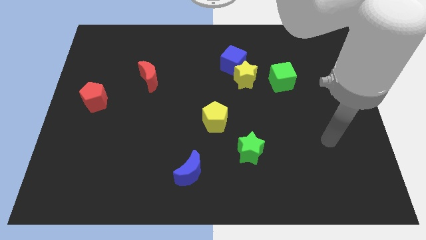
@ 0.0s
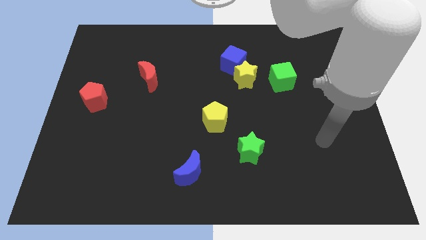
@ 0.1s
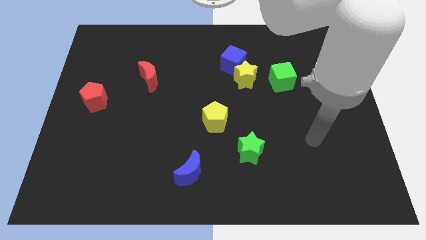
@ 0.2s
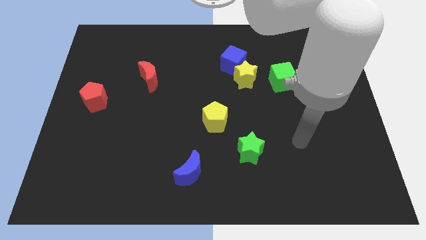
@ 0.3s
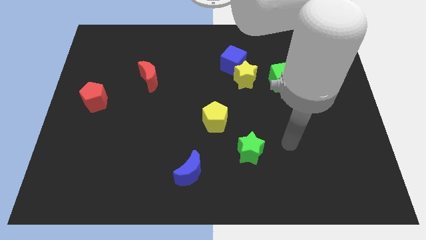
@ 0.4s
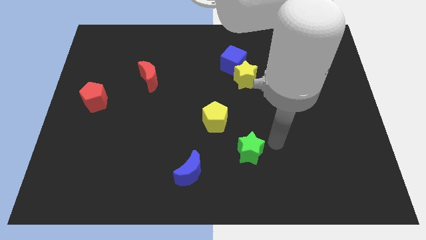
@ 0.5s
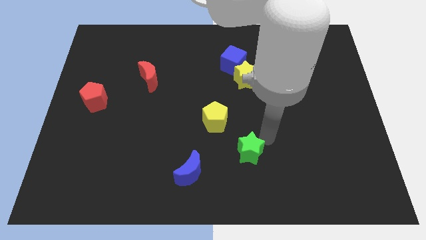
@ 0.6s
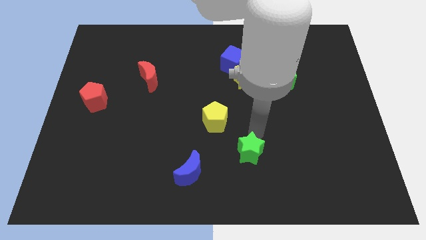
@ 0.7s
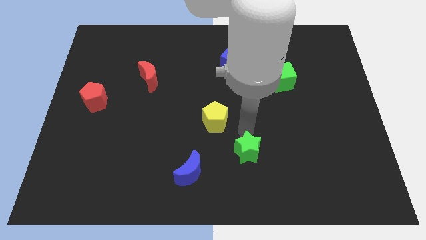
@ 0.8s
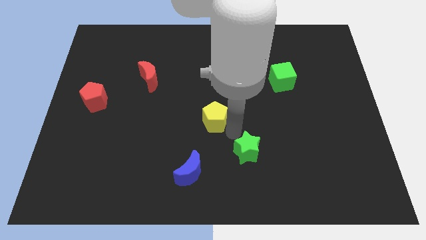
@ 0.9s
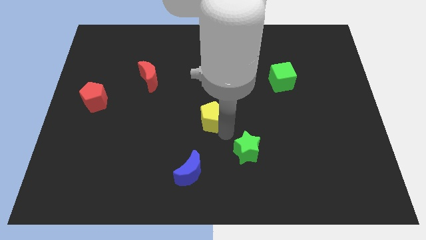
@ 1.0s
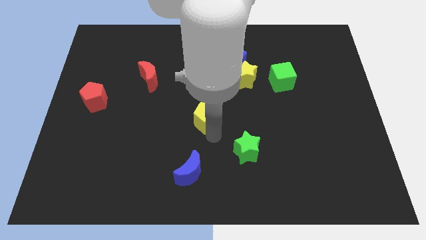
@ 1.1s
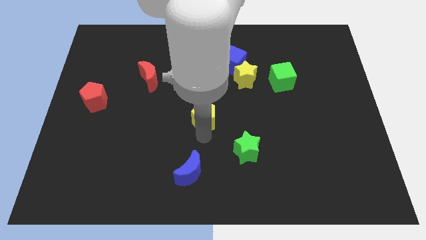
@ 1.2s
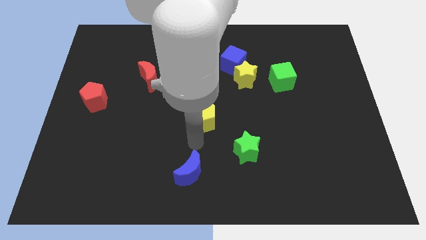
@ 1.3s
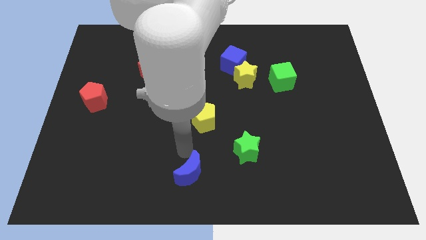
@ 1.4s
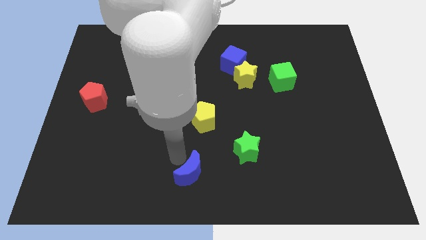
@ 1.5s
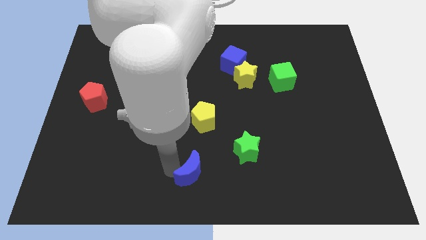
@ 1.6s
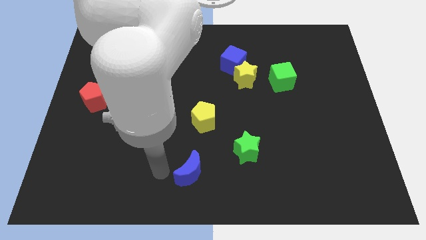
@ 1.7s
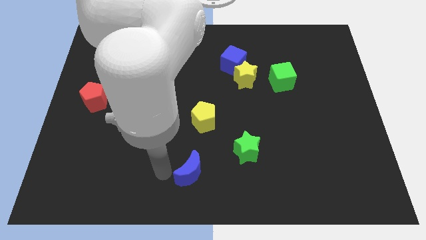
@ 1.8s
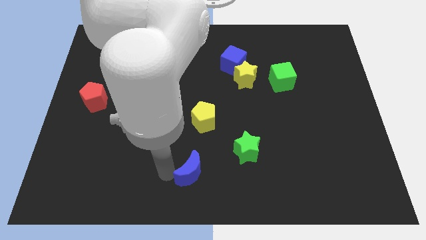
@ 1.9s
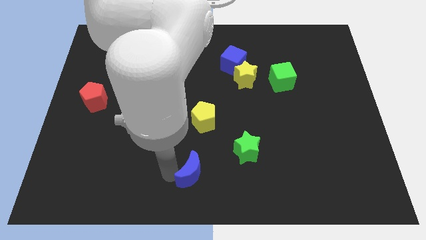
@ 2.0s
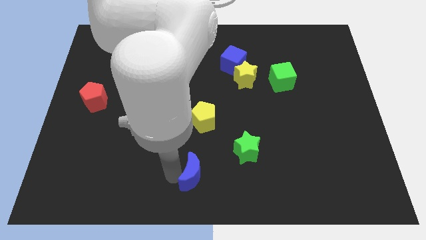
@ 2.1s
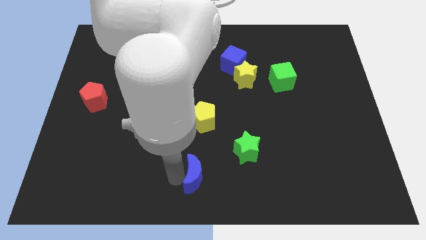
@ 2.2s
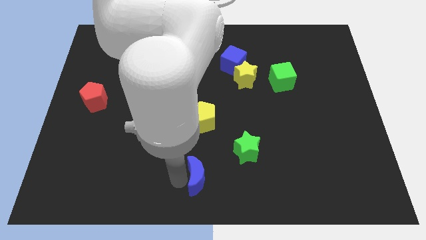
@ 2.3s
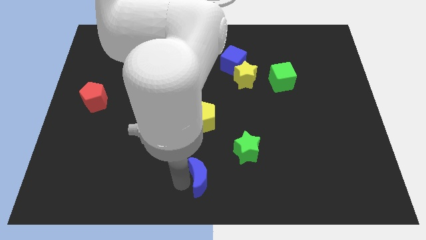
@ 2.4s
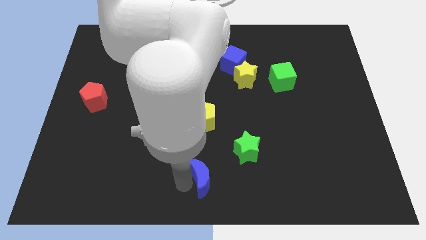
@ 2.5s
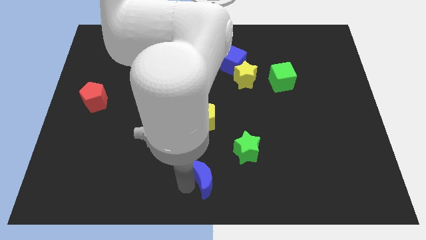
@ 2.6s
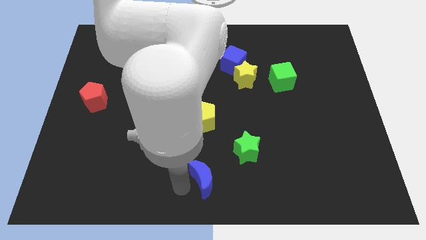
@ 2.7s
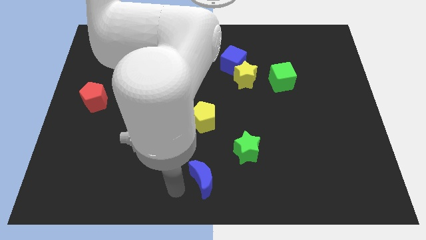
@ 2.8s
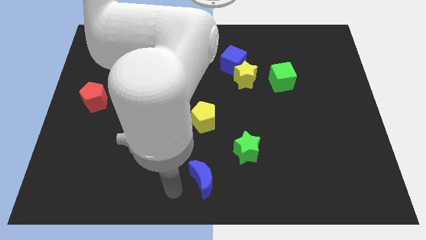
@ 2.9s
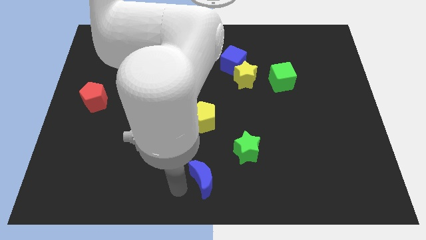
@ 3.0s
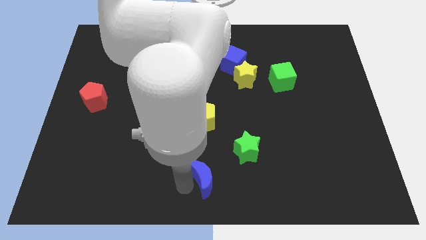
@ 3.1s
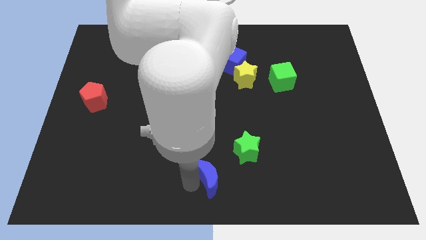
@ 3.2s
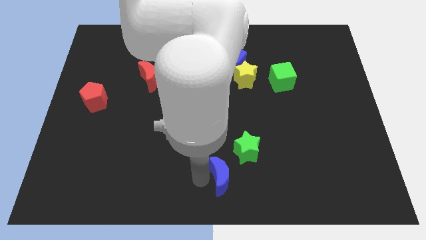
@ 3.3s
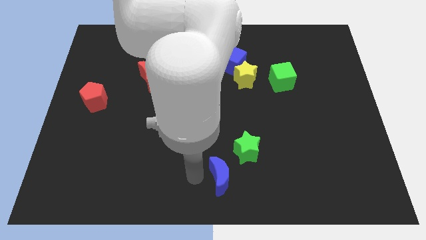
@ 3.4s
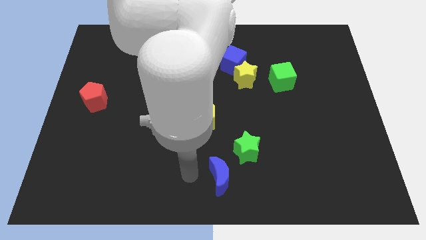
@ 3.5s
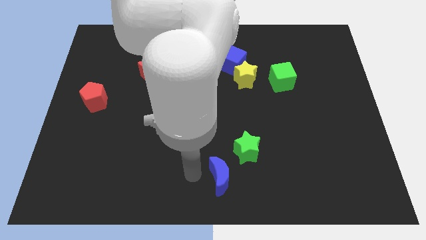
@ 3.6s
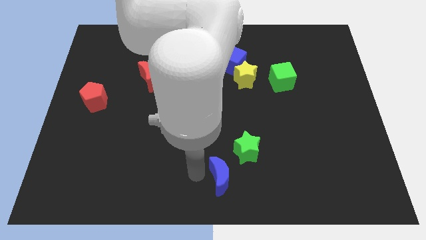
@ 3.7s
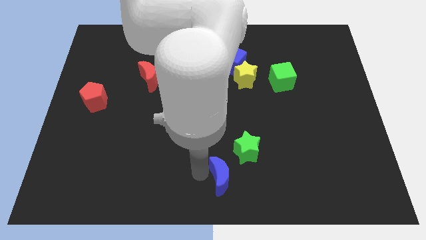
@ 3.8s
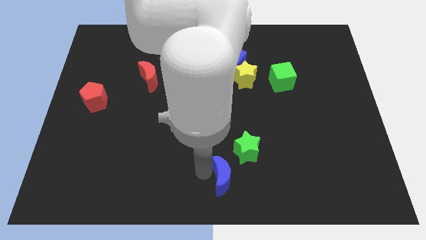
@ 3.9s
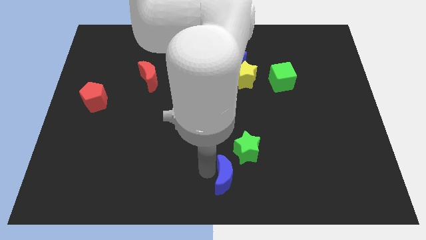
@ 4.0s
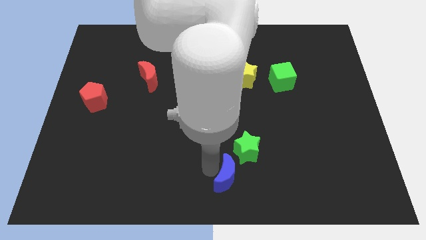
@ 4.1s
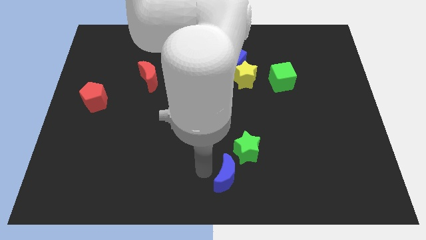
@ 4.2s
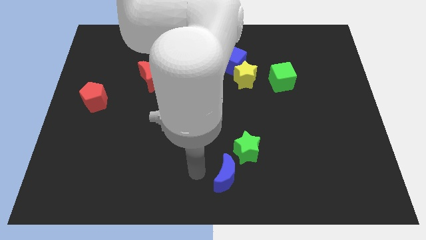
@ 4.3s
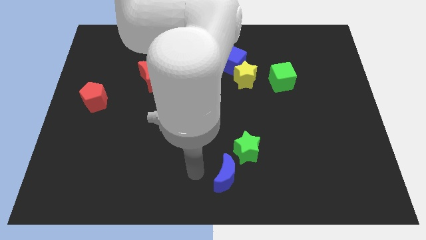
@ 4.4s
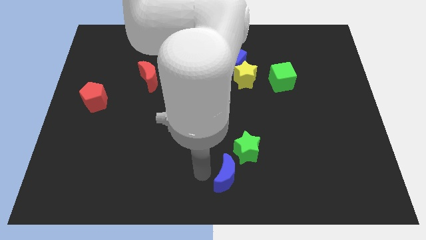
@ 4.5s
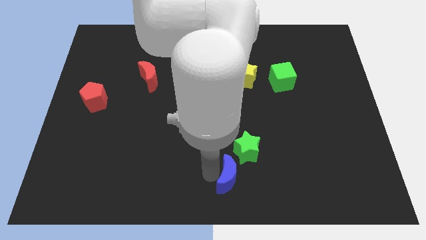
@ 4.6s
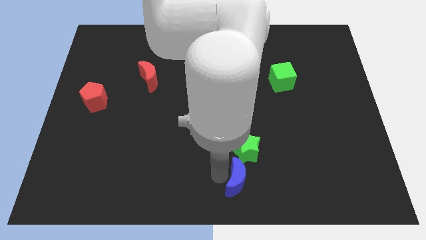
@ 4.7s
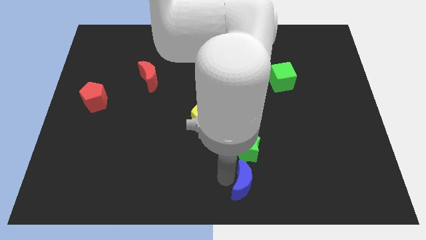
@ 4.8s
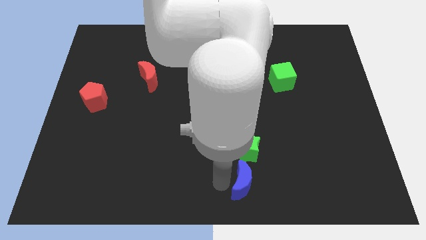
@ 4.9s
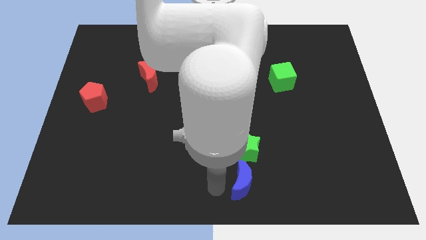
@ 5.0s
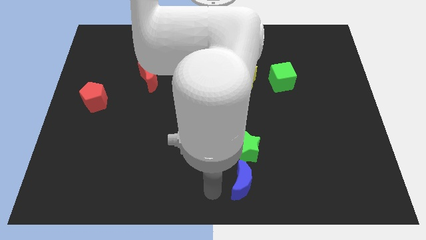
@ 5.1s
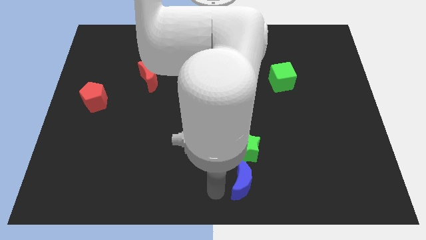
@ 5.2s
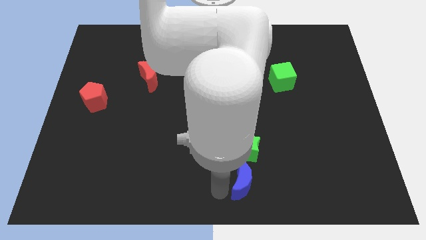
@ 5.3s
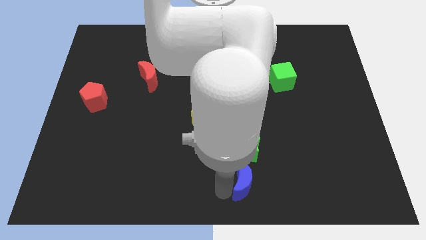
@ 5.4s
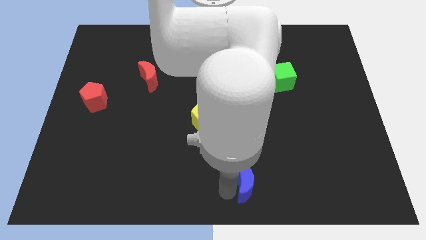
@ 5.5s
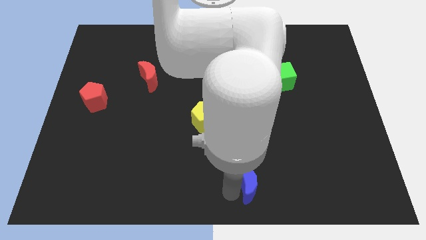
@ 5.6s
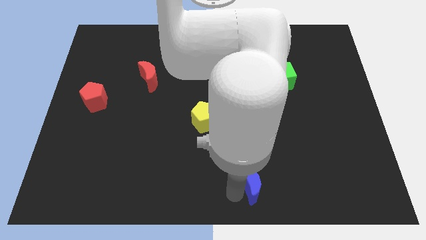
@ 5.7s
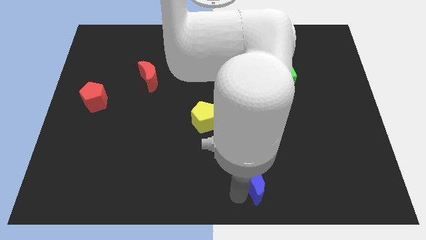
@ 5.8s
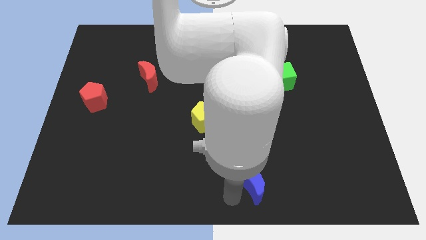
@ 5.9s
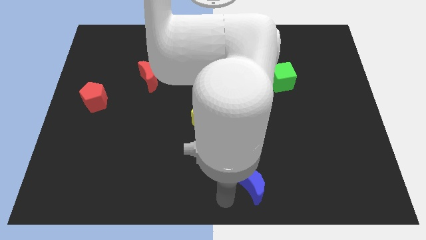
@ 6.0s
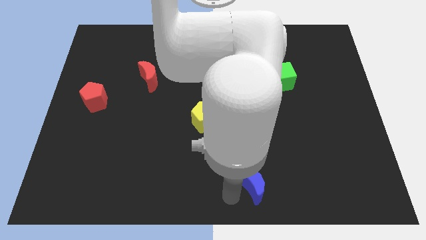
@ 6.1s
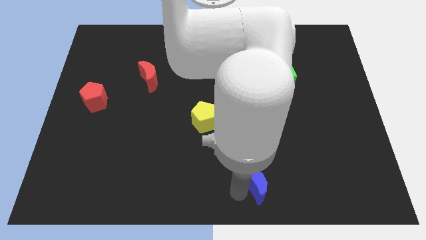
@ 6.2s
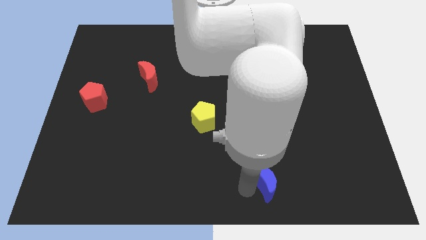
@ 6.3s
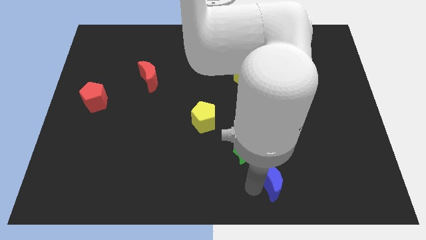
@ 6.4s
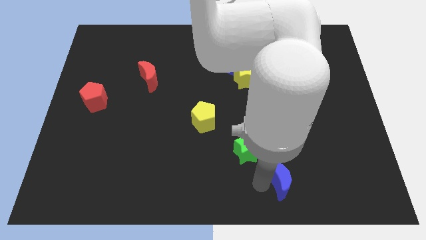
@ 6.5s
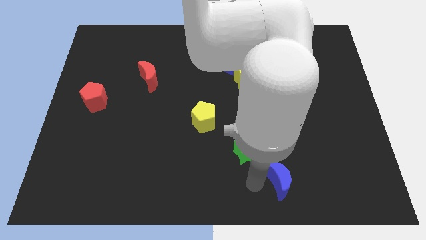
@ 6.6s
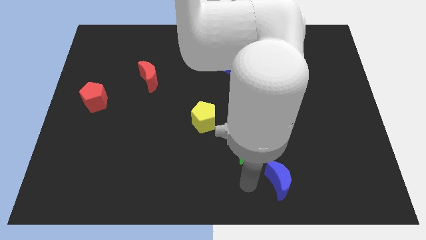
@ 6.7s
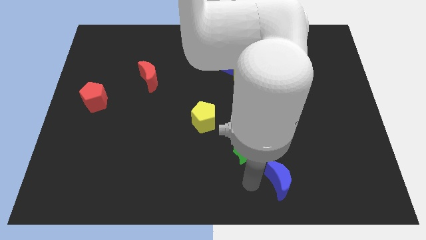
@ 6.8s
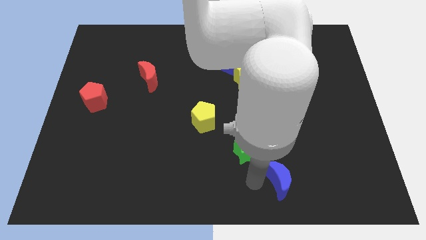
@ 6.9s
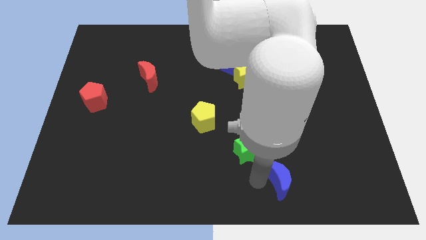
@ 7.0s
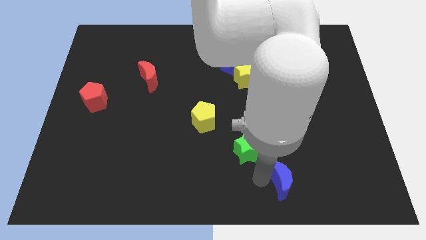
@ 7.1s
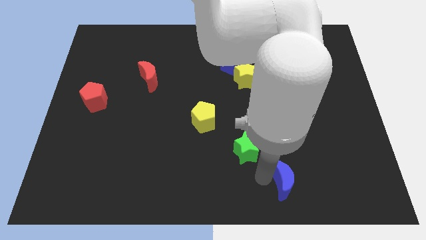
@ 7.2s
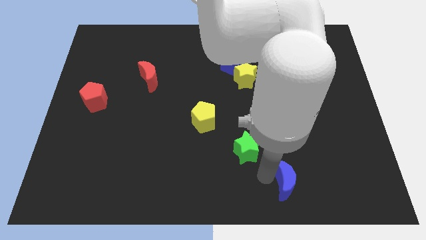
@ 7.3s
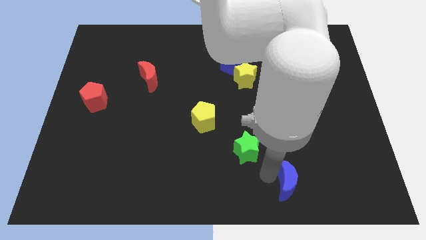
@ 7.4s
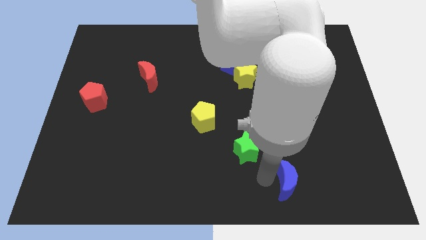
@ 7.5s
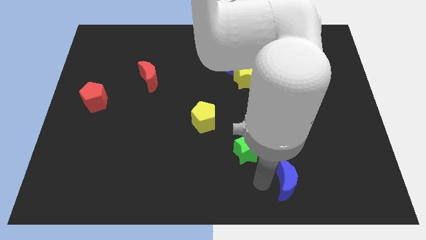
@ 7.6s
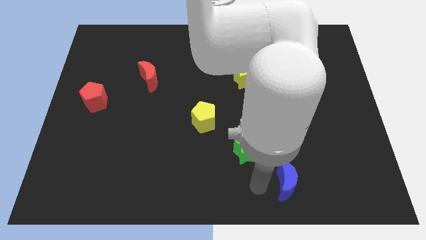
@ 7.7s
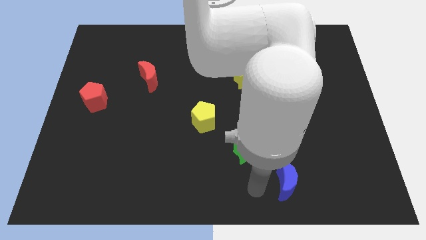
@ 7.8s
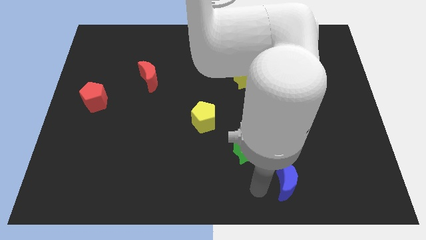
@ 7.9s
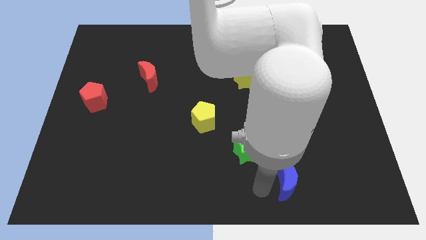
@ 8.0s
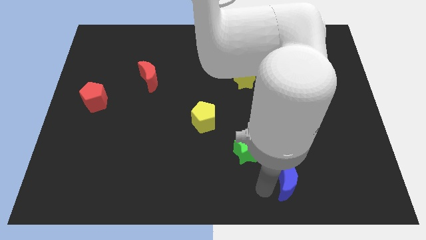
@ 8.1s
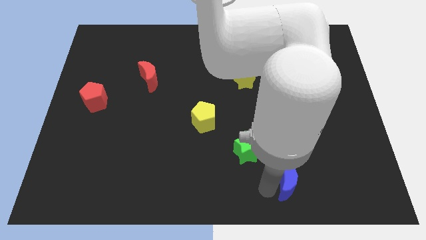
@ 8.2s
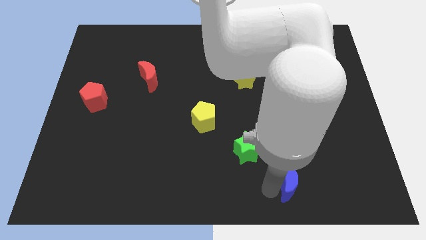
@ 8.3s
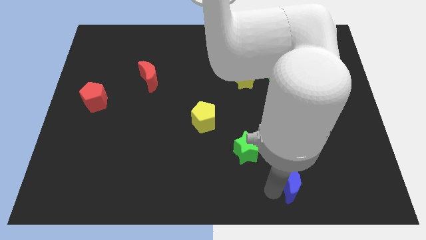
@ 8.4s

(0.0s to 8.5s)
move the blue moon to the right

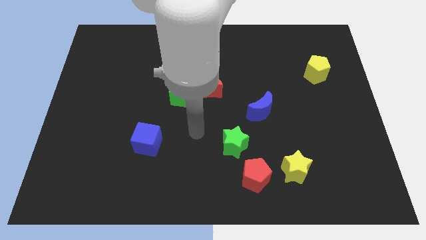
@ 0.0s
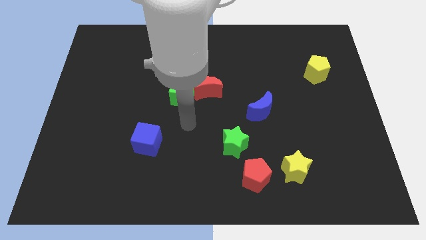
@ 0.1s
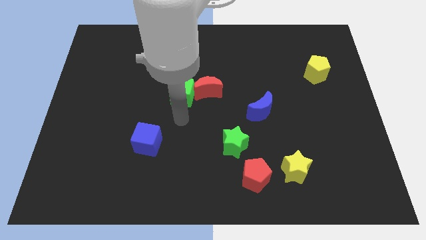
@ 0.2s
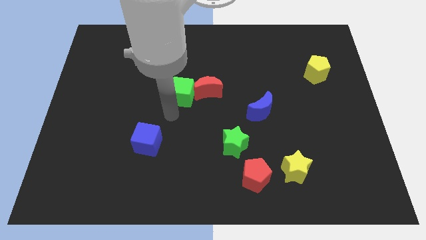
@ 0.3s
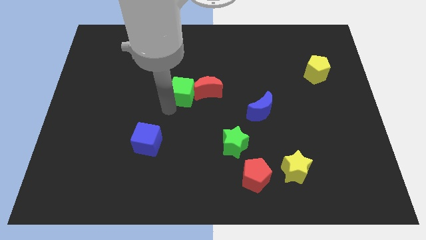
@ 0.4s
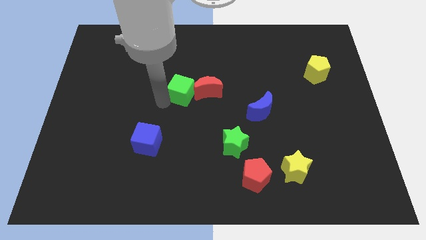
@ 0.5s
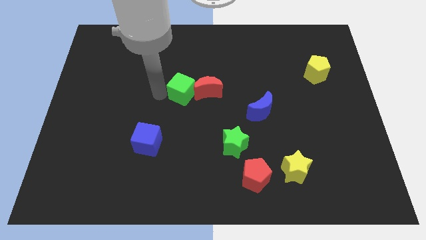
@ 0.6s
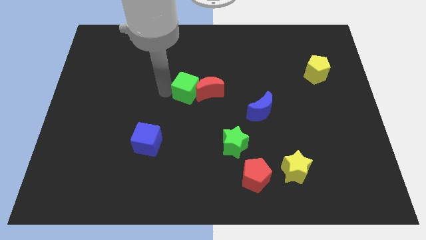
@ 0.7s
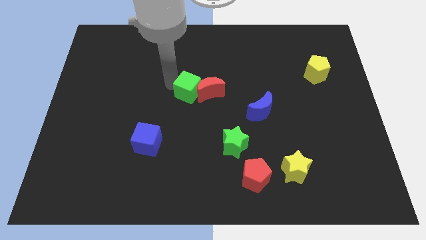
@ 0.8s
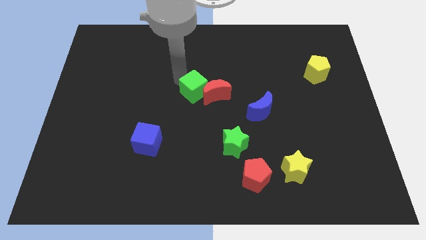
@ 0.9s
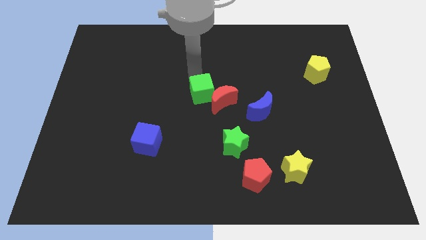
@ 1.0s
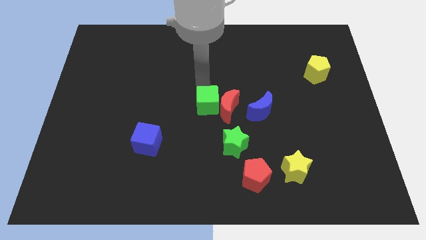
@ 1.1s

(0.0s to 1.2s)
move the red moon down and to the right diagonally a bit
